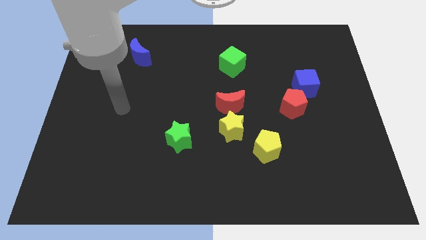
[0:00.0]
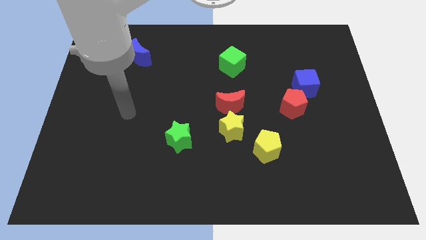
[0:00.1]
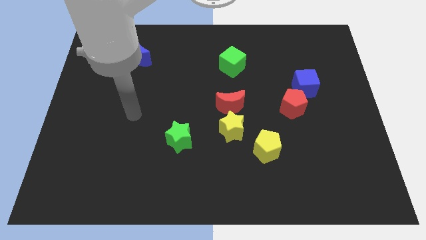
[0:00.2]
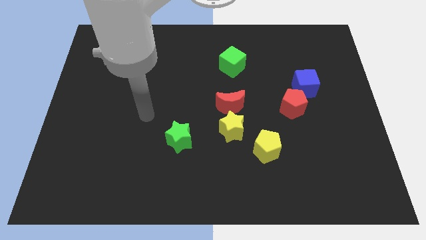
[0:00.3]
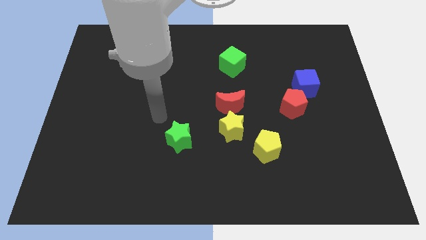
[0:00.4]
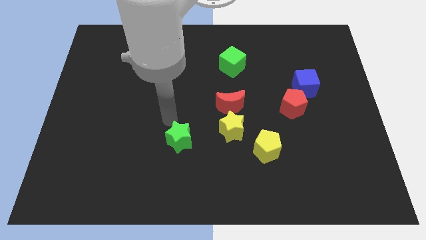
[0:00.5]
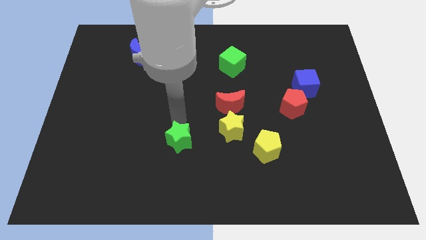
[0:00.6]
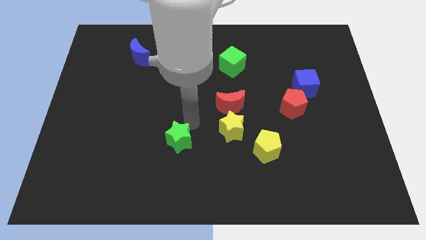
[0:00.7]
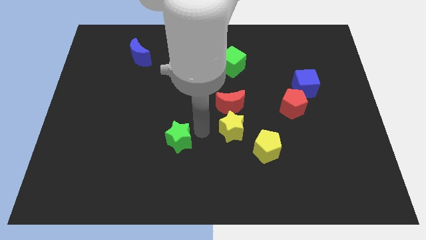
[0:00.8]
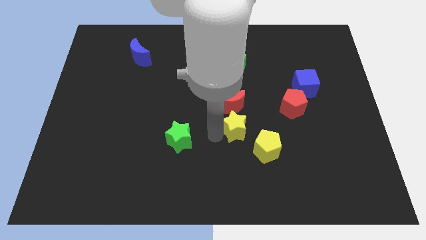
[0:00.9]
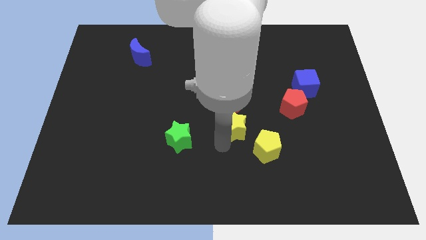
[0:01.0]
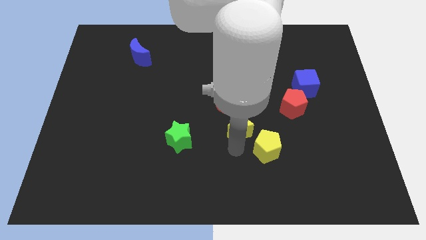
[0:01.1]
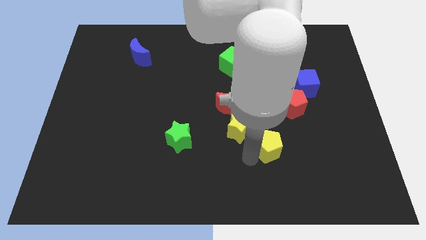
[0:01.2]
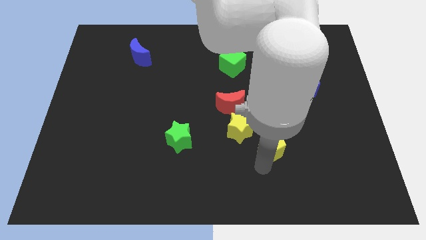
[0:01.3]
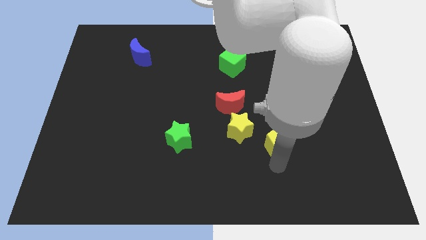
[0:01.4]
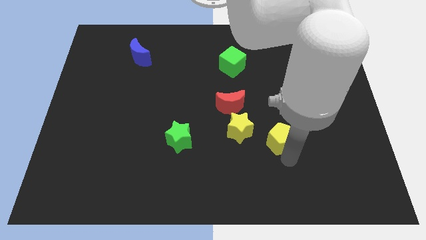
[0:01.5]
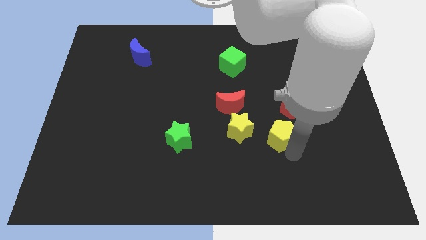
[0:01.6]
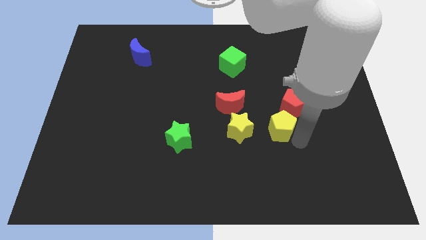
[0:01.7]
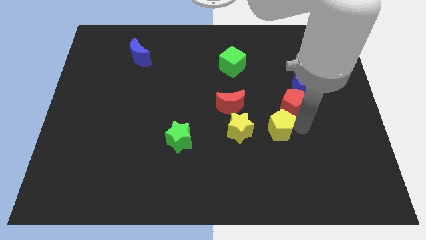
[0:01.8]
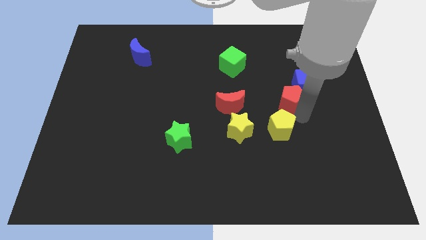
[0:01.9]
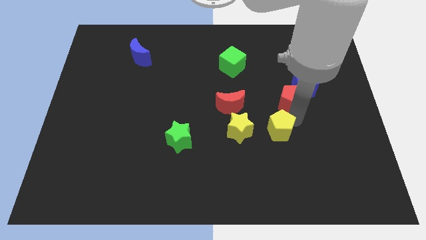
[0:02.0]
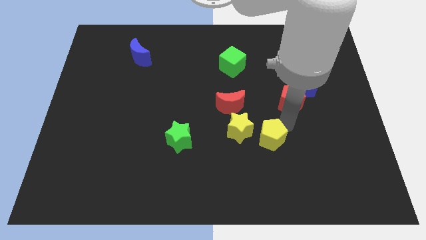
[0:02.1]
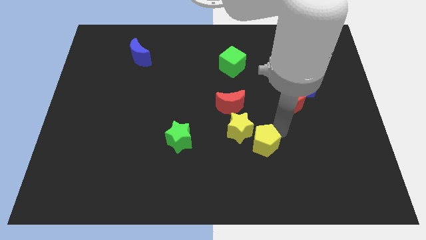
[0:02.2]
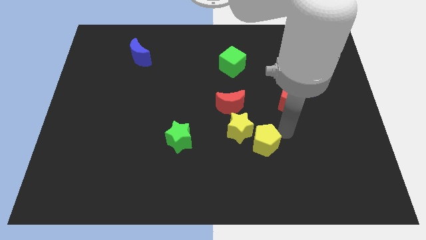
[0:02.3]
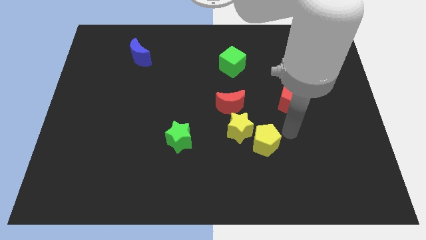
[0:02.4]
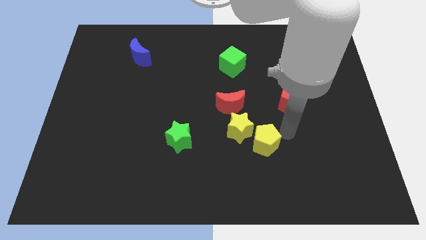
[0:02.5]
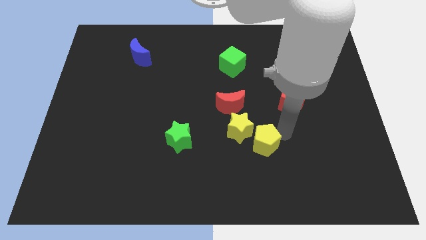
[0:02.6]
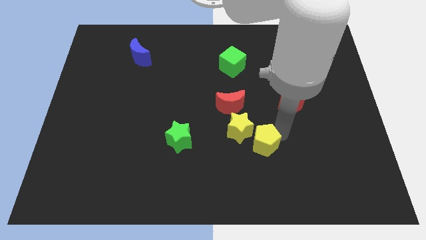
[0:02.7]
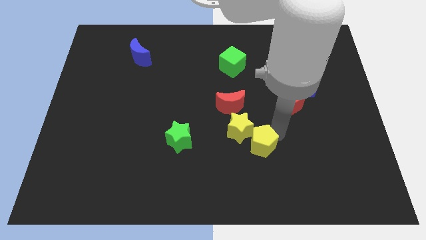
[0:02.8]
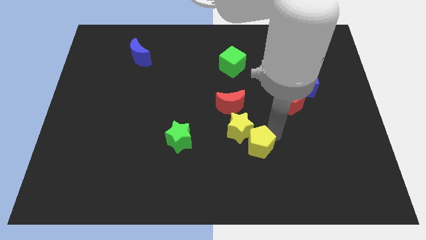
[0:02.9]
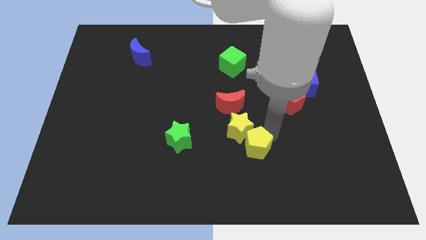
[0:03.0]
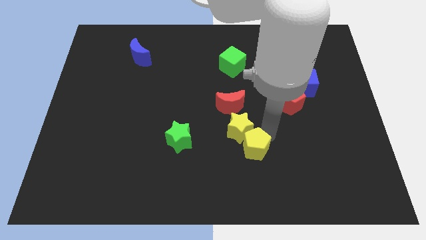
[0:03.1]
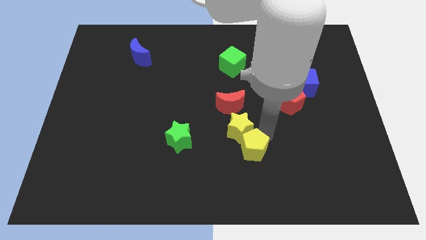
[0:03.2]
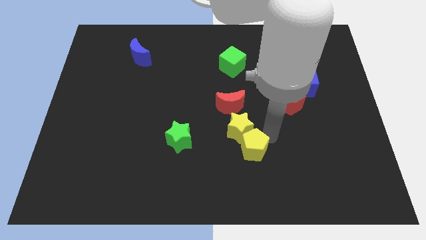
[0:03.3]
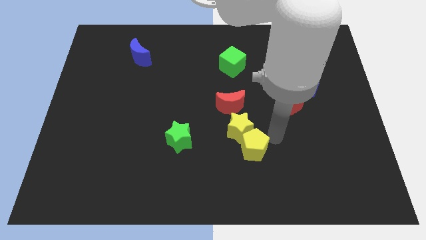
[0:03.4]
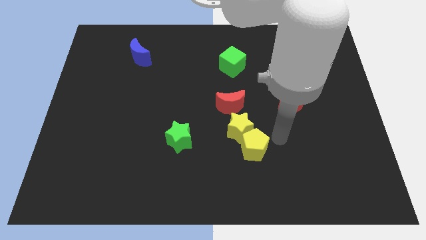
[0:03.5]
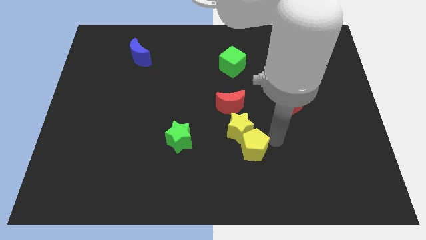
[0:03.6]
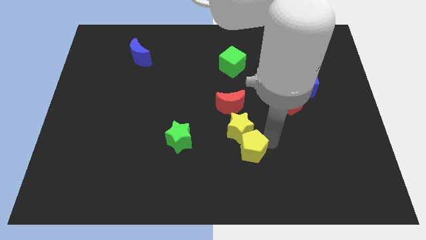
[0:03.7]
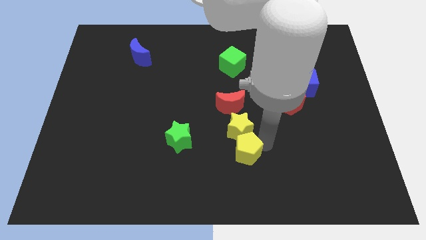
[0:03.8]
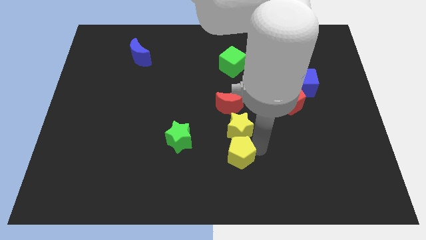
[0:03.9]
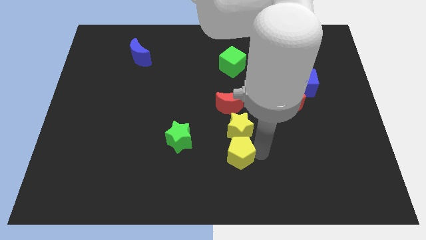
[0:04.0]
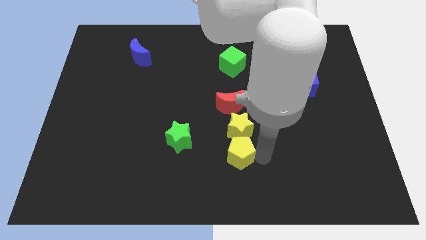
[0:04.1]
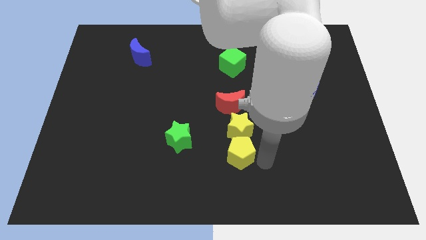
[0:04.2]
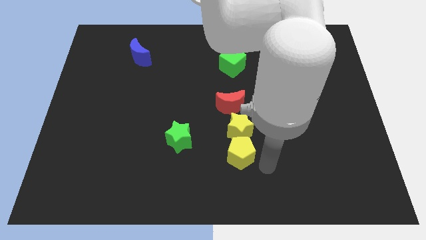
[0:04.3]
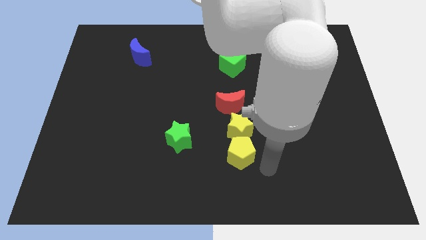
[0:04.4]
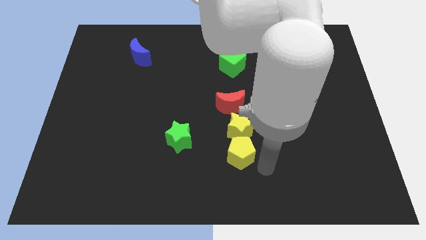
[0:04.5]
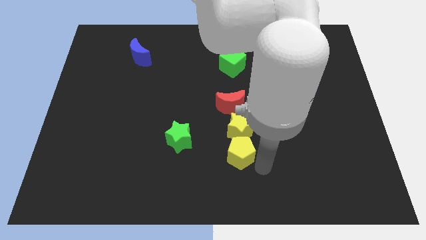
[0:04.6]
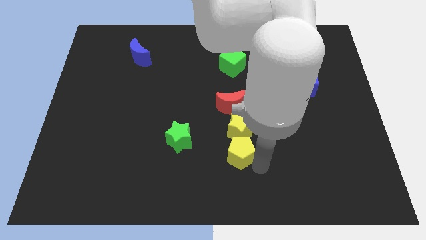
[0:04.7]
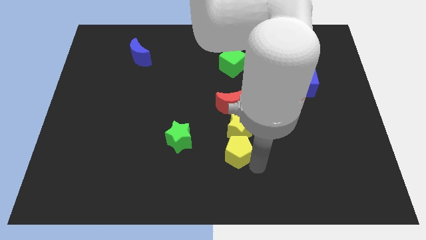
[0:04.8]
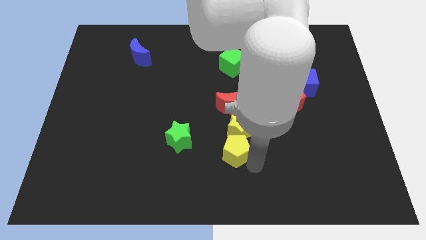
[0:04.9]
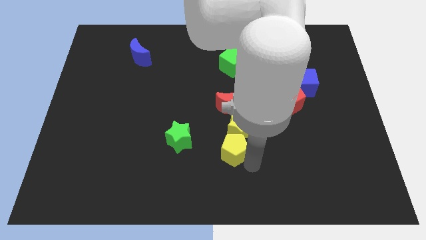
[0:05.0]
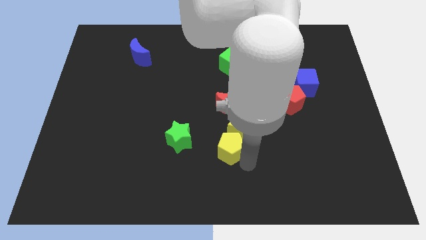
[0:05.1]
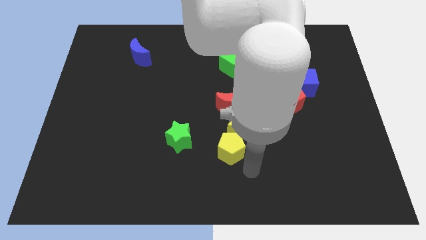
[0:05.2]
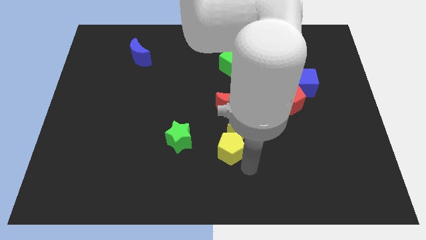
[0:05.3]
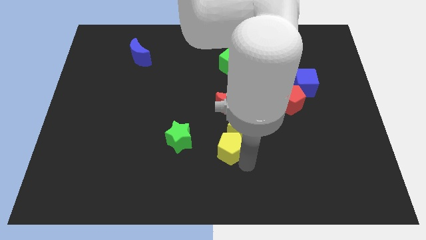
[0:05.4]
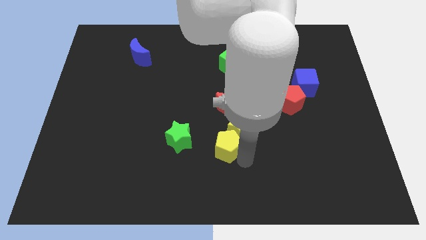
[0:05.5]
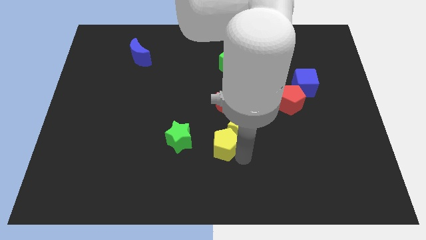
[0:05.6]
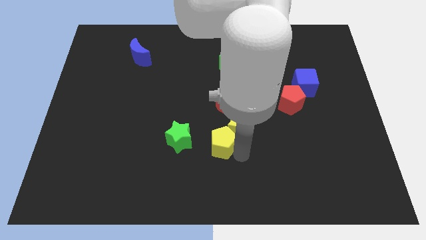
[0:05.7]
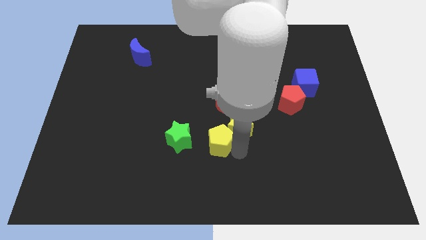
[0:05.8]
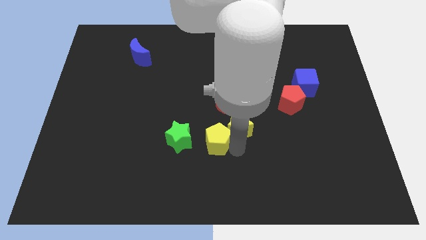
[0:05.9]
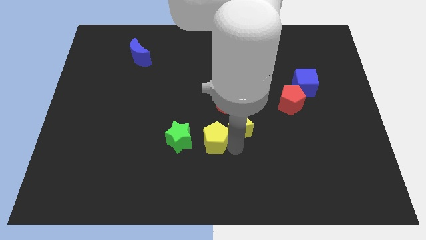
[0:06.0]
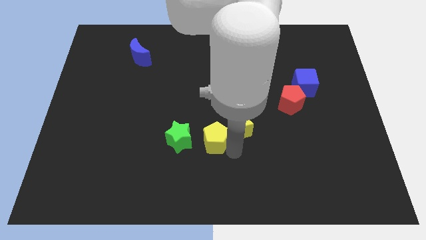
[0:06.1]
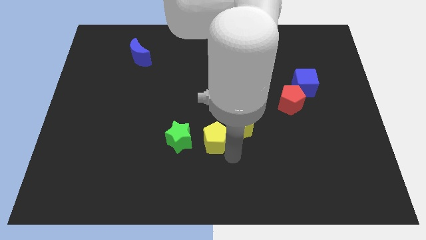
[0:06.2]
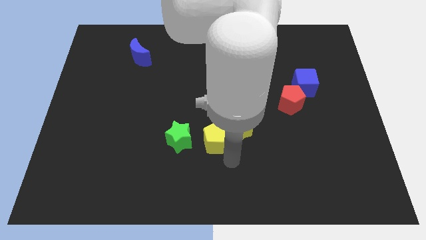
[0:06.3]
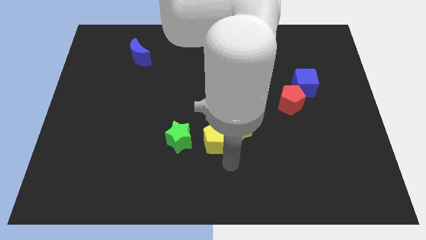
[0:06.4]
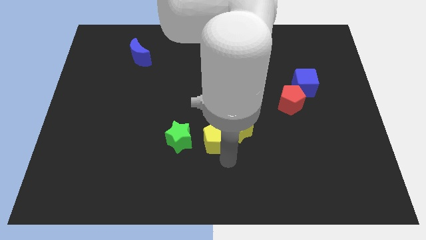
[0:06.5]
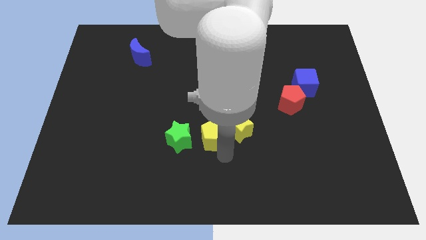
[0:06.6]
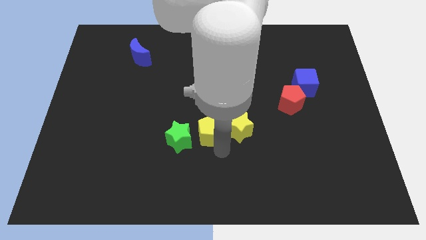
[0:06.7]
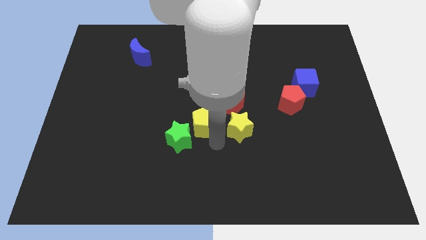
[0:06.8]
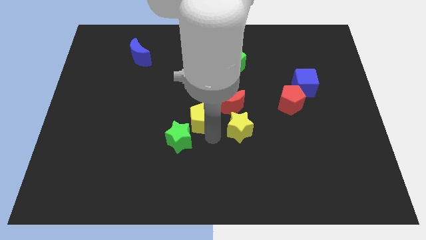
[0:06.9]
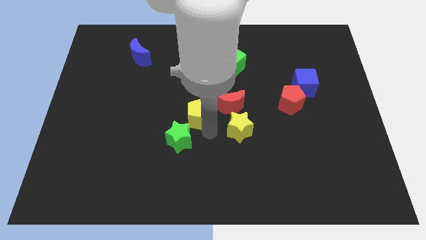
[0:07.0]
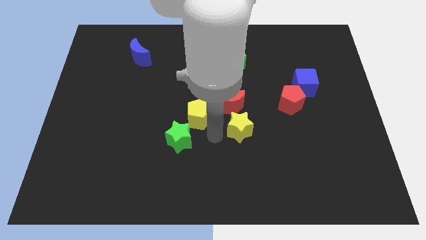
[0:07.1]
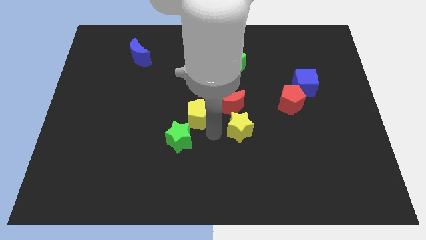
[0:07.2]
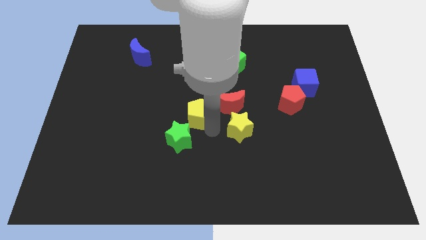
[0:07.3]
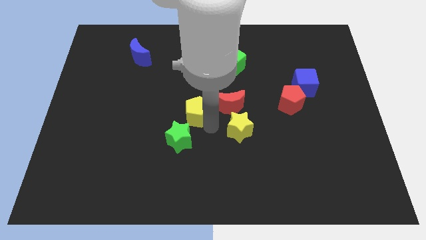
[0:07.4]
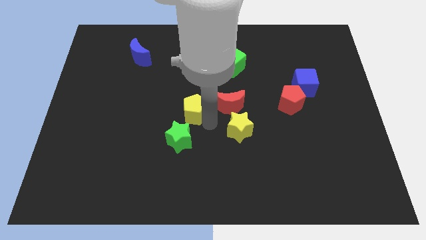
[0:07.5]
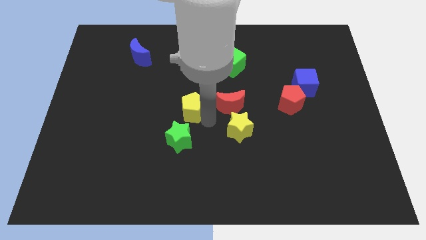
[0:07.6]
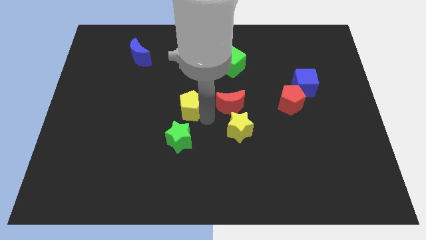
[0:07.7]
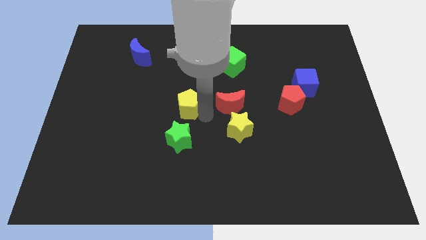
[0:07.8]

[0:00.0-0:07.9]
push the yellow pentagon up and to the left

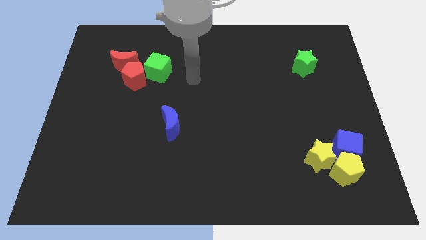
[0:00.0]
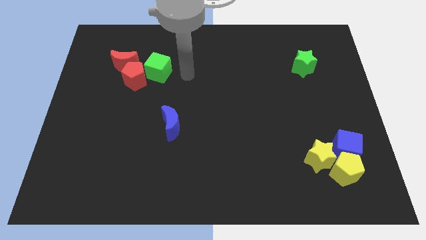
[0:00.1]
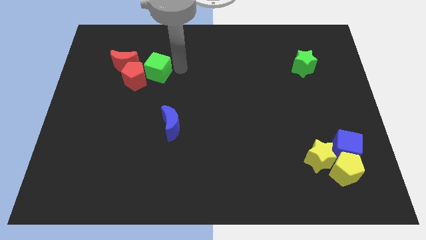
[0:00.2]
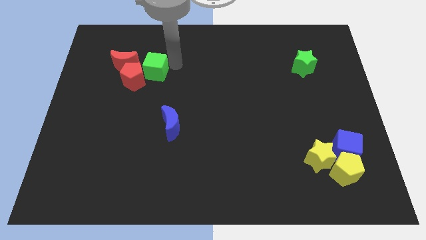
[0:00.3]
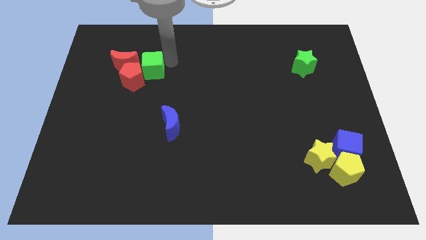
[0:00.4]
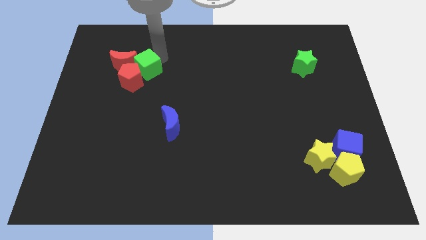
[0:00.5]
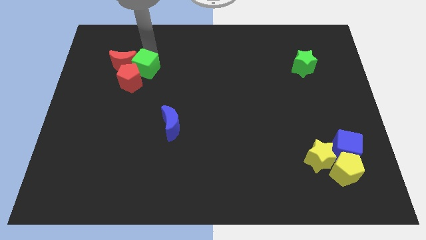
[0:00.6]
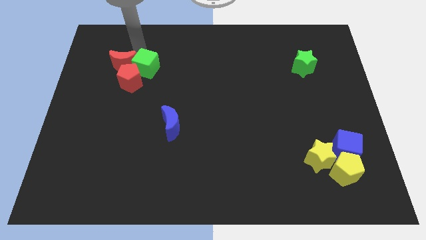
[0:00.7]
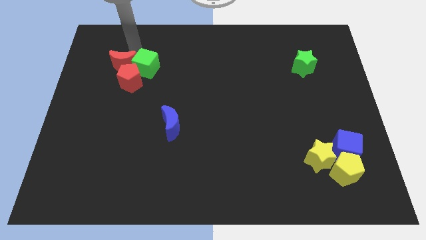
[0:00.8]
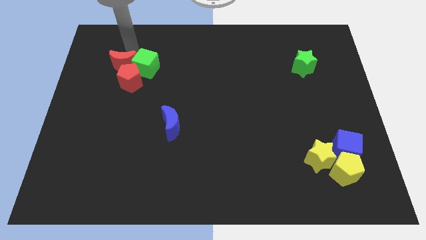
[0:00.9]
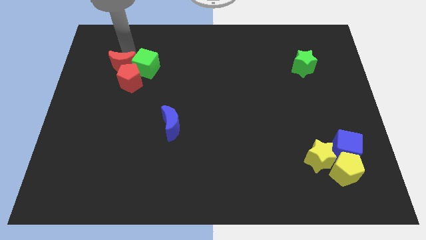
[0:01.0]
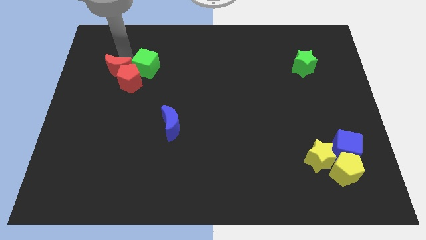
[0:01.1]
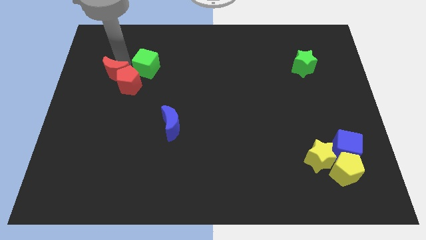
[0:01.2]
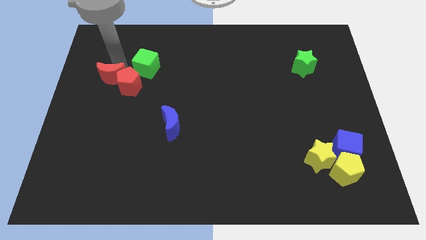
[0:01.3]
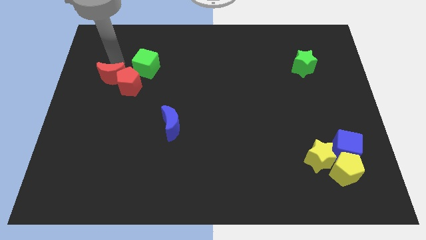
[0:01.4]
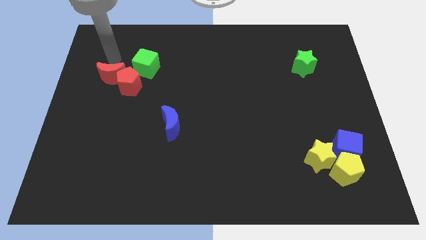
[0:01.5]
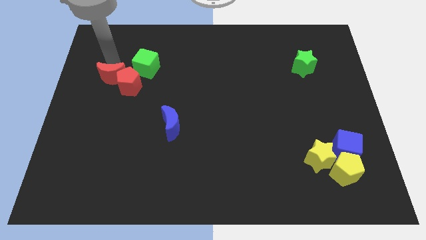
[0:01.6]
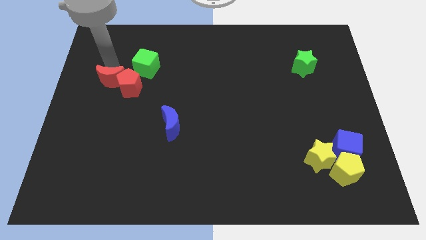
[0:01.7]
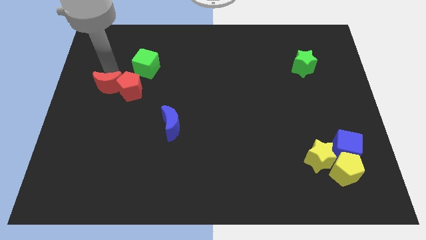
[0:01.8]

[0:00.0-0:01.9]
slightly move the red moon downwards
